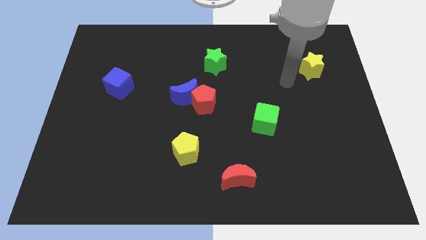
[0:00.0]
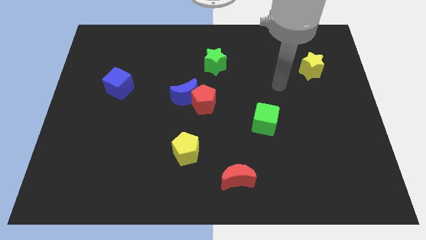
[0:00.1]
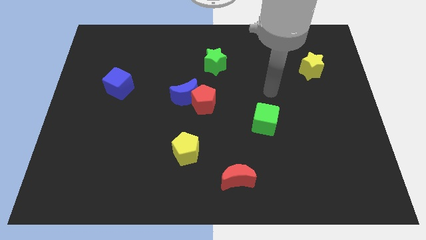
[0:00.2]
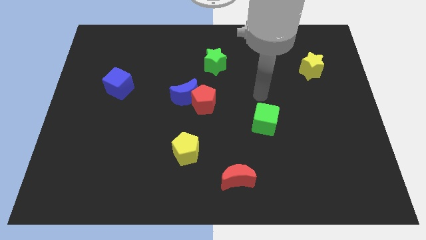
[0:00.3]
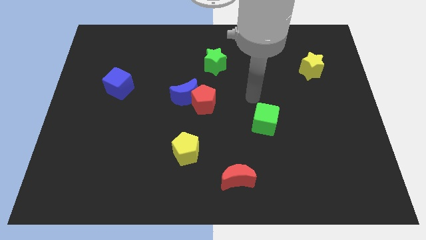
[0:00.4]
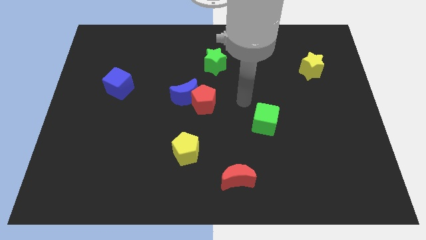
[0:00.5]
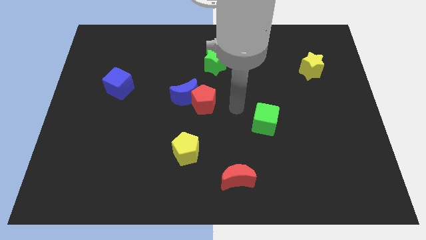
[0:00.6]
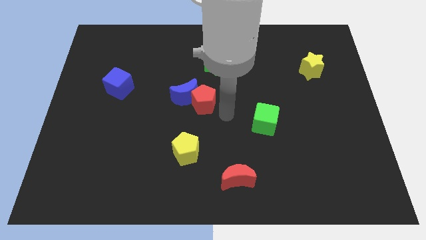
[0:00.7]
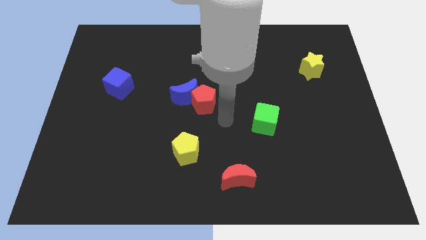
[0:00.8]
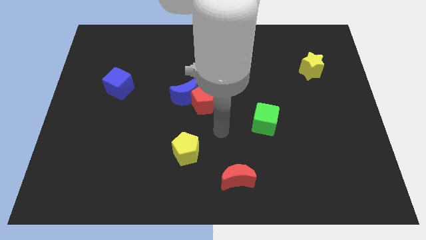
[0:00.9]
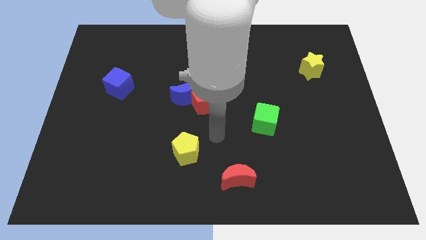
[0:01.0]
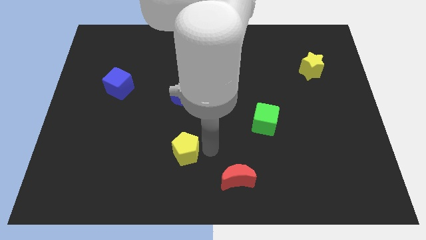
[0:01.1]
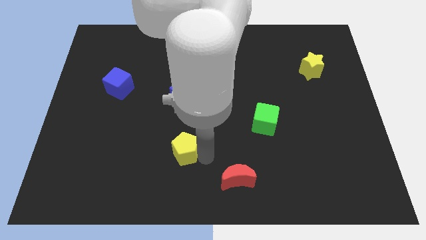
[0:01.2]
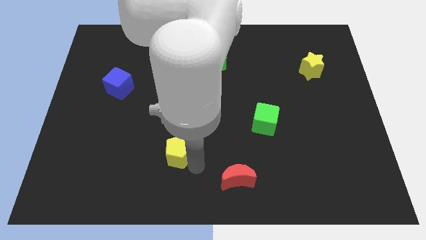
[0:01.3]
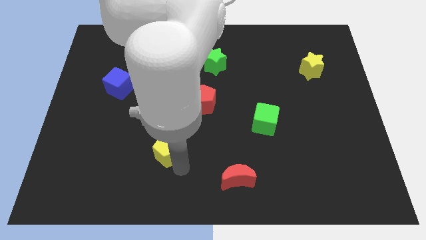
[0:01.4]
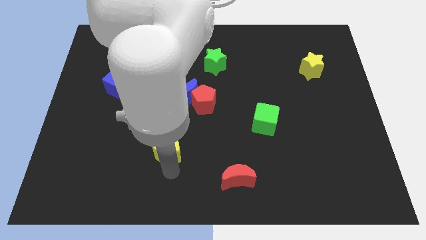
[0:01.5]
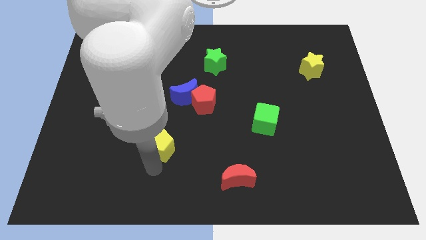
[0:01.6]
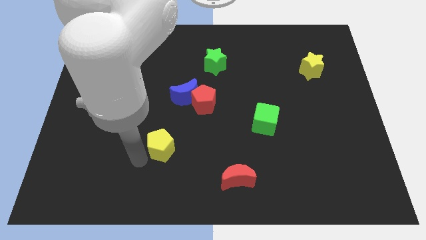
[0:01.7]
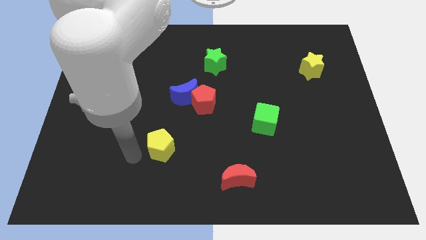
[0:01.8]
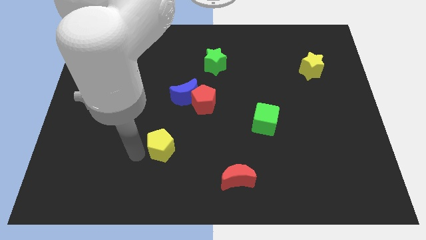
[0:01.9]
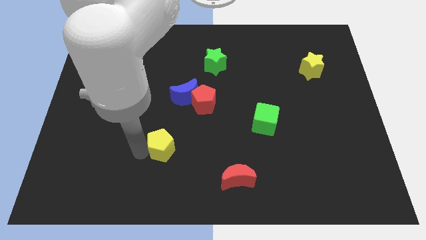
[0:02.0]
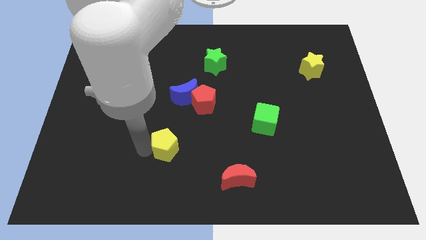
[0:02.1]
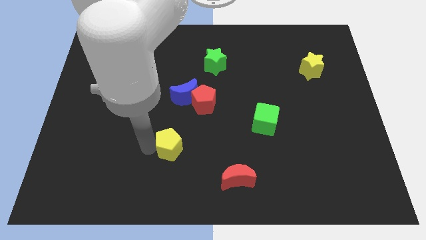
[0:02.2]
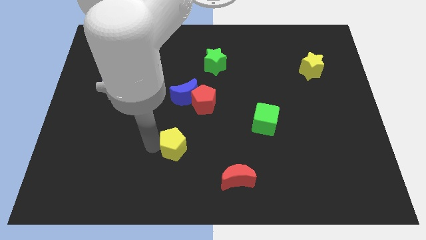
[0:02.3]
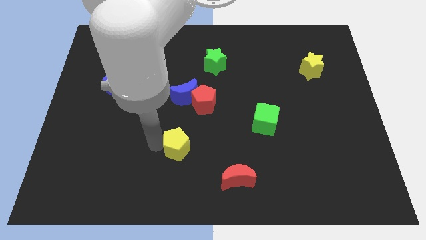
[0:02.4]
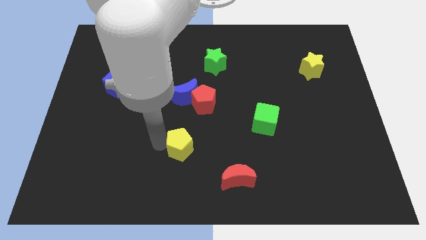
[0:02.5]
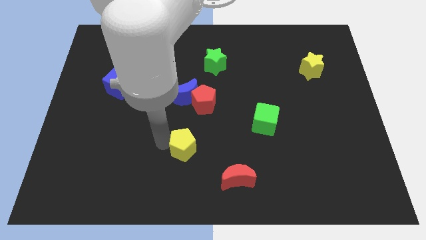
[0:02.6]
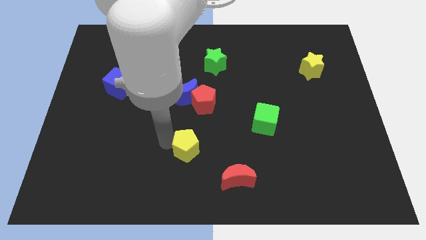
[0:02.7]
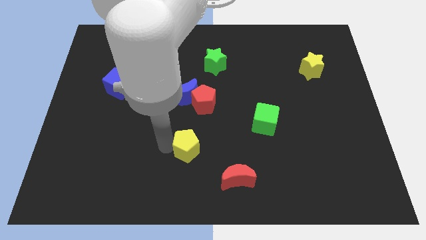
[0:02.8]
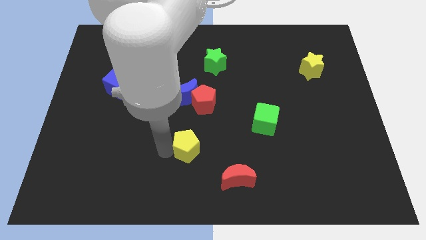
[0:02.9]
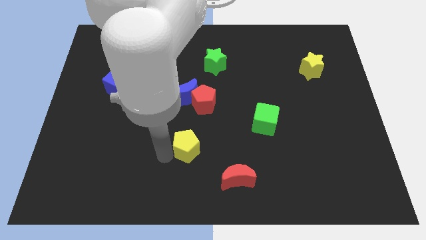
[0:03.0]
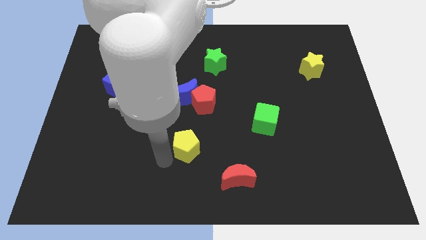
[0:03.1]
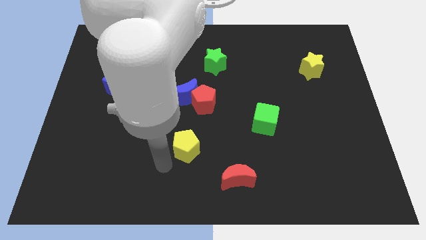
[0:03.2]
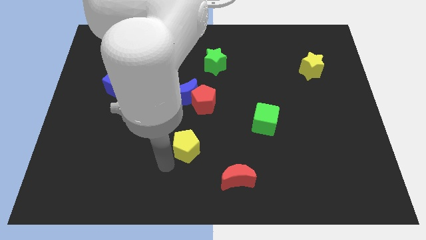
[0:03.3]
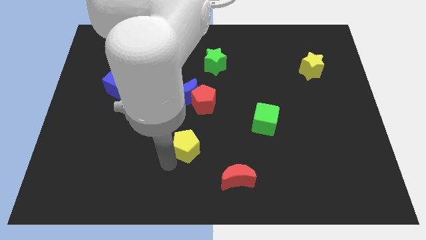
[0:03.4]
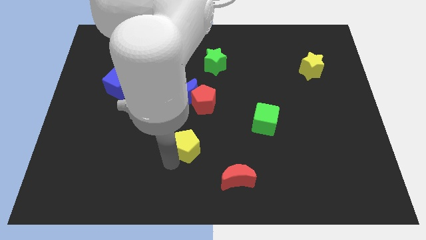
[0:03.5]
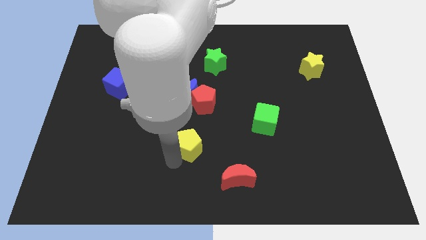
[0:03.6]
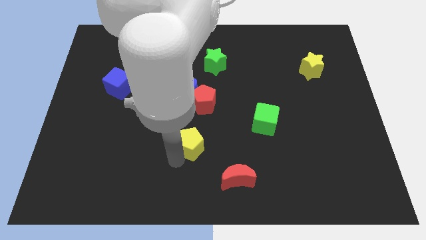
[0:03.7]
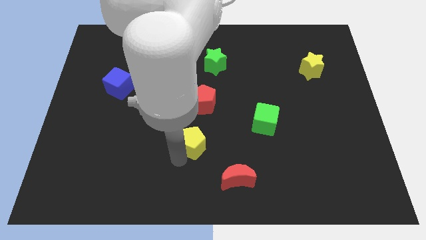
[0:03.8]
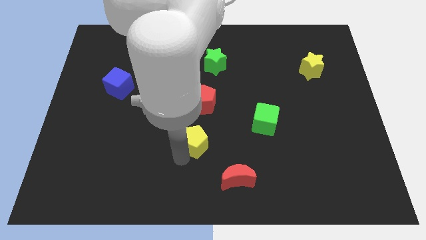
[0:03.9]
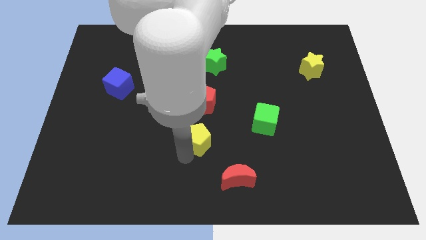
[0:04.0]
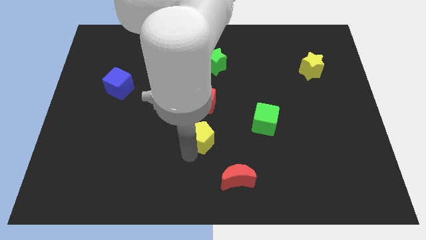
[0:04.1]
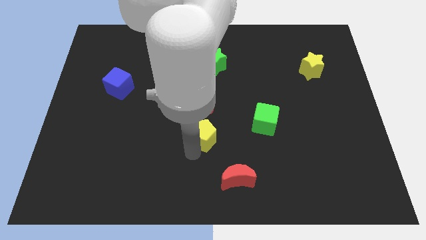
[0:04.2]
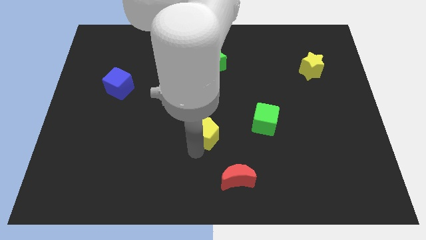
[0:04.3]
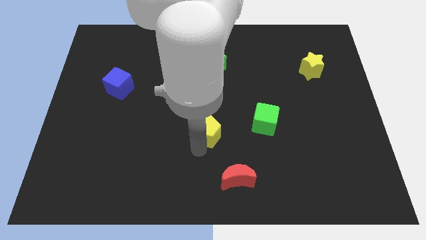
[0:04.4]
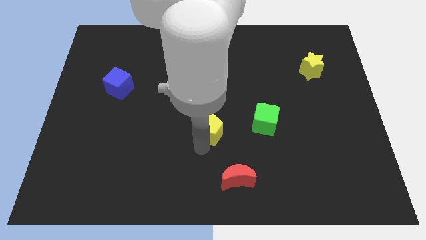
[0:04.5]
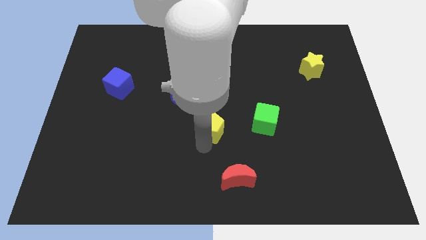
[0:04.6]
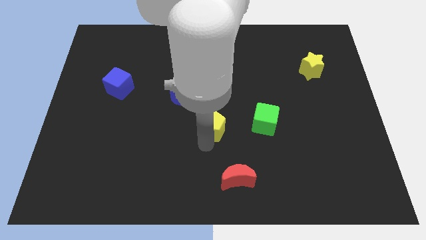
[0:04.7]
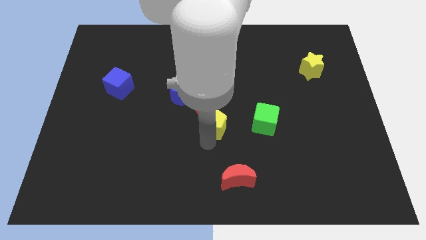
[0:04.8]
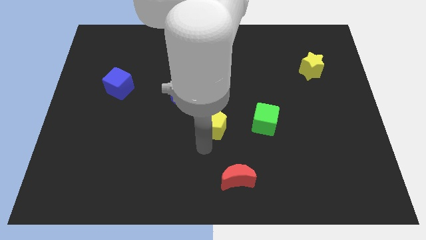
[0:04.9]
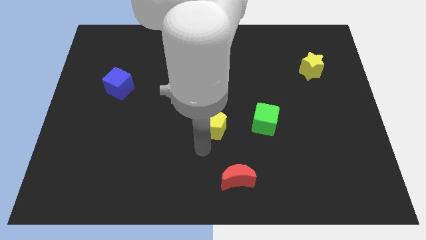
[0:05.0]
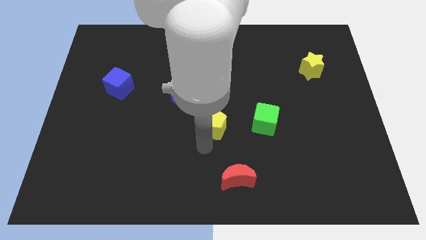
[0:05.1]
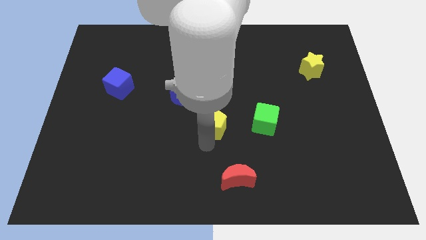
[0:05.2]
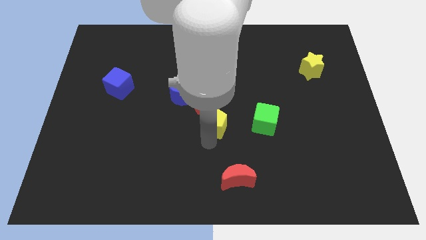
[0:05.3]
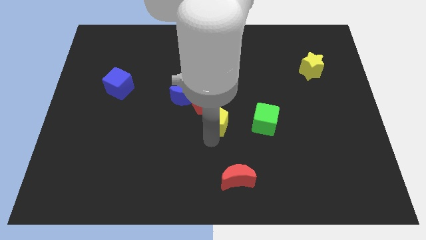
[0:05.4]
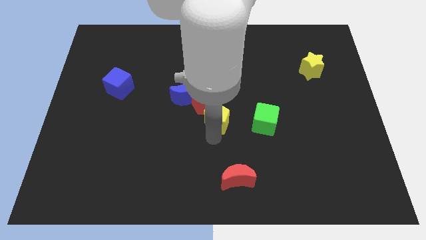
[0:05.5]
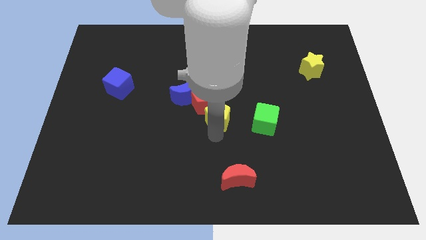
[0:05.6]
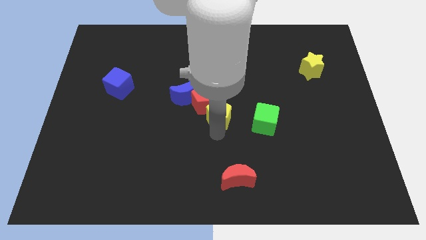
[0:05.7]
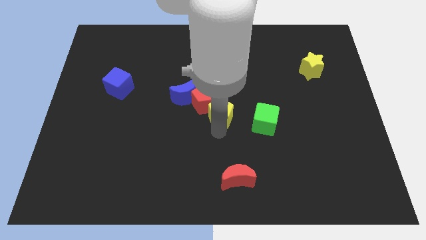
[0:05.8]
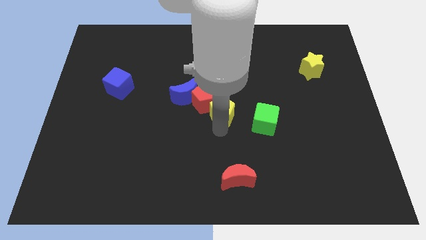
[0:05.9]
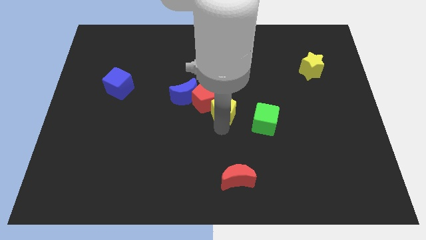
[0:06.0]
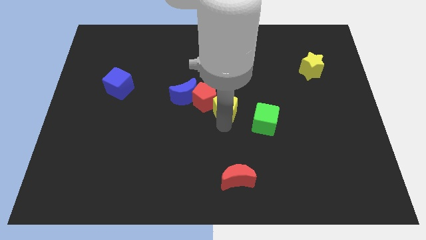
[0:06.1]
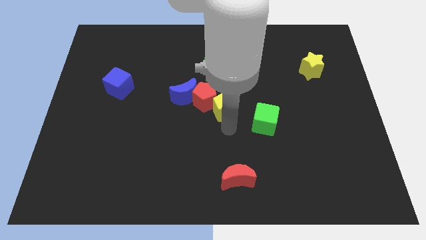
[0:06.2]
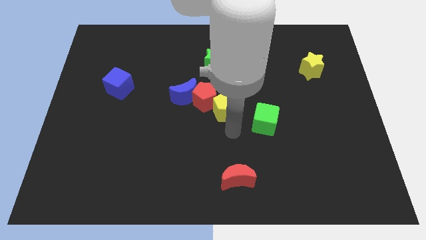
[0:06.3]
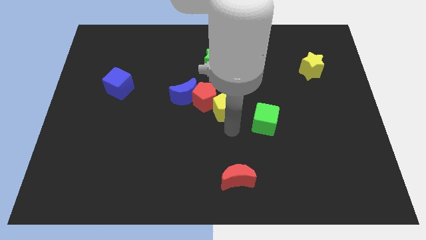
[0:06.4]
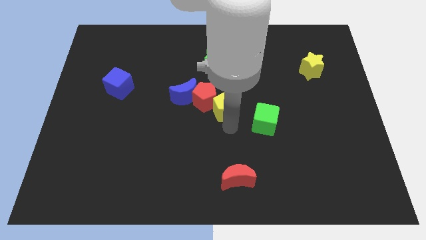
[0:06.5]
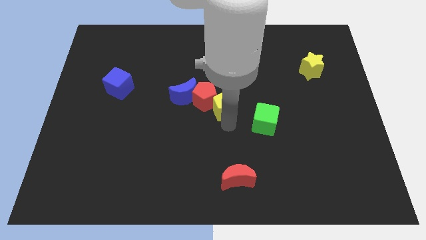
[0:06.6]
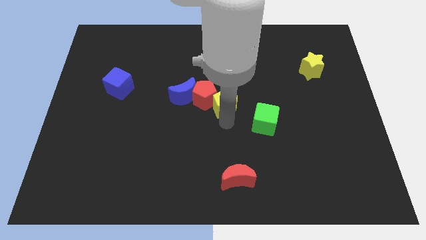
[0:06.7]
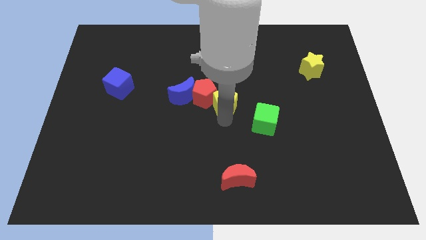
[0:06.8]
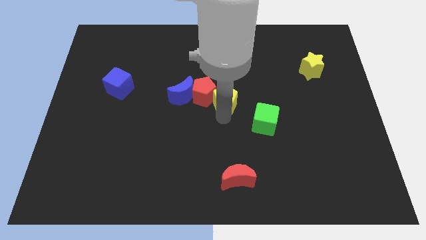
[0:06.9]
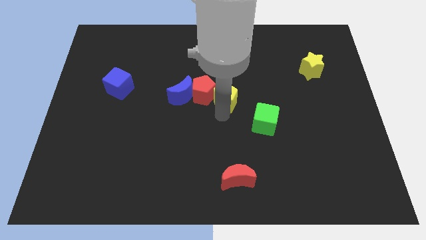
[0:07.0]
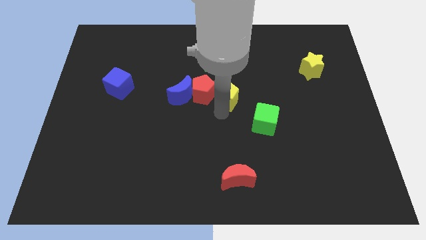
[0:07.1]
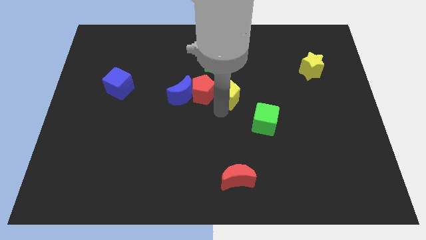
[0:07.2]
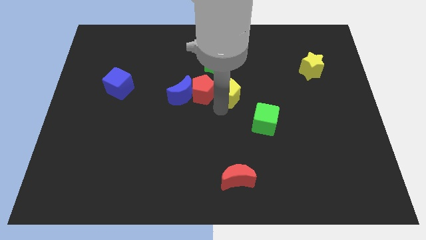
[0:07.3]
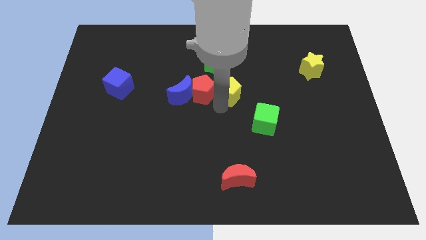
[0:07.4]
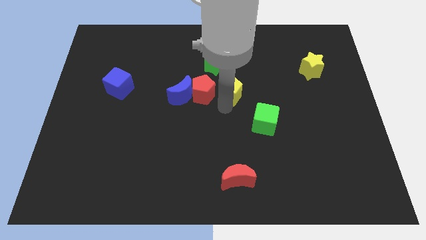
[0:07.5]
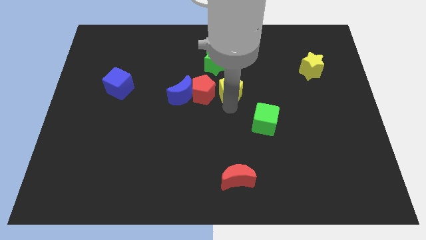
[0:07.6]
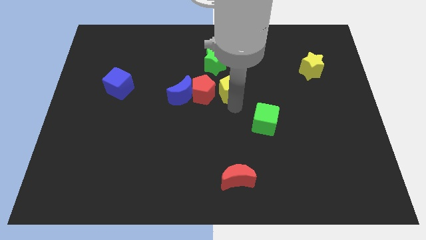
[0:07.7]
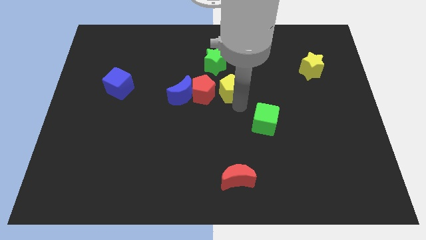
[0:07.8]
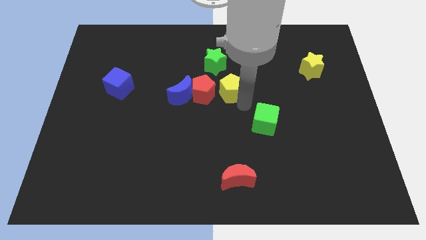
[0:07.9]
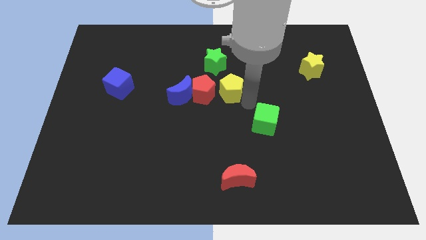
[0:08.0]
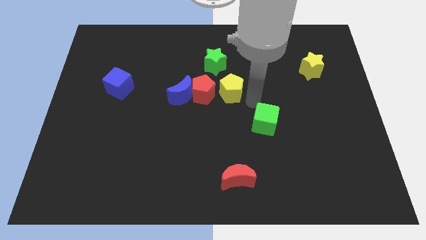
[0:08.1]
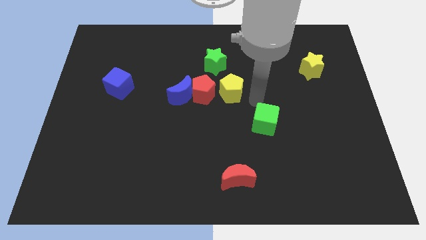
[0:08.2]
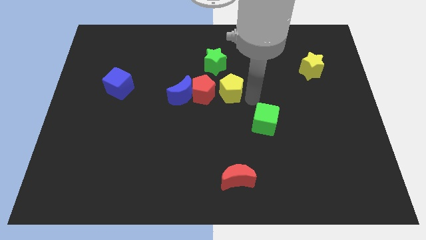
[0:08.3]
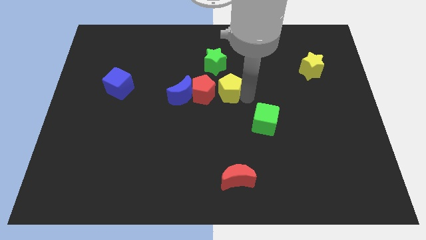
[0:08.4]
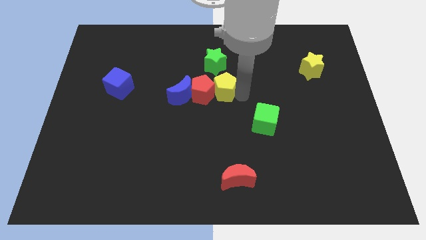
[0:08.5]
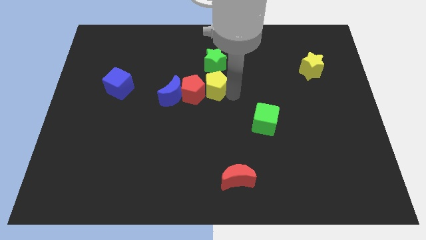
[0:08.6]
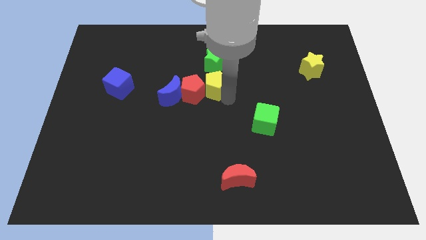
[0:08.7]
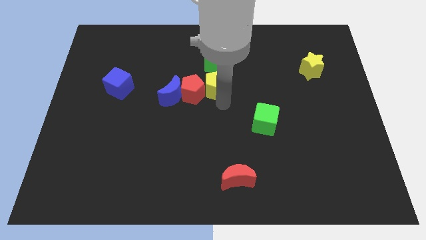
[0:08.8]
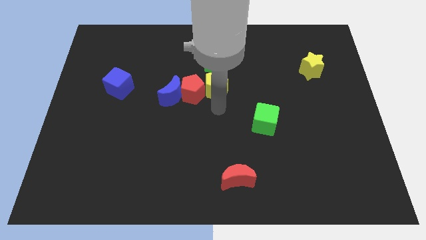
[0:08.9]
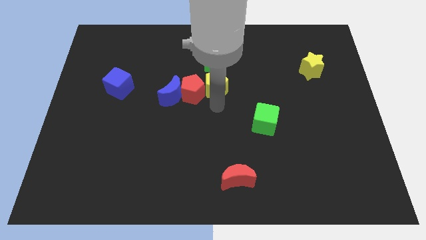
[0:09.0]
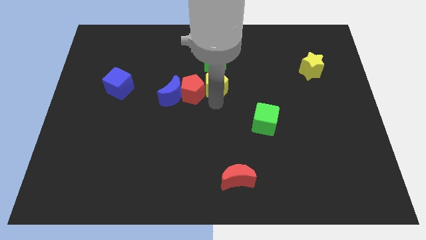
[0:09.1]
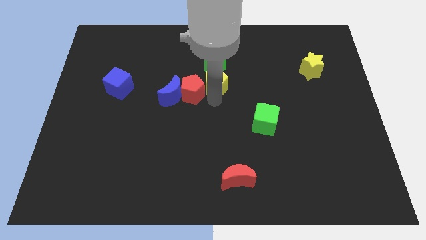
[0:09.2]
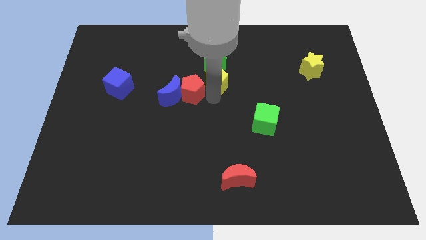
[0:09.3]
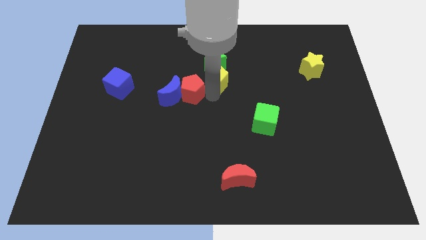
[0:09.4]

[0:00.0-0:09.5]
push the yellow pentagon towards the green star
